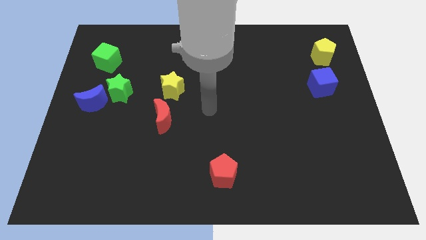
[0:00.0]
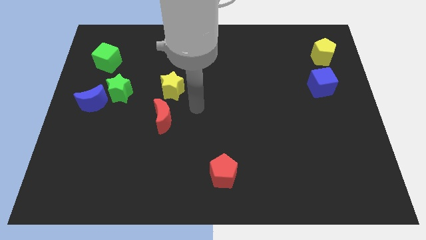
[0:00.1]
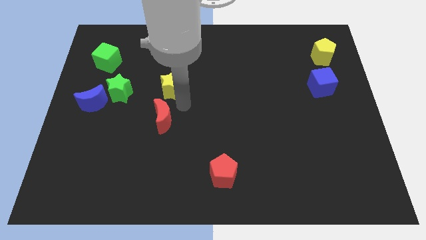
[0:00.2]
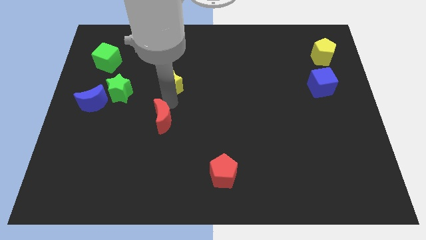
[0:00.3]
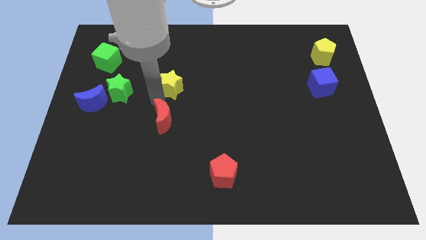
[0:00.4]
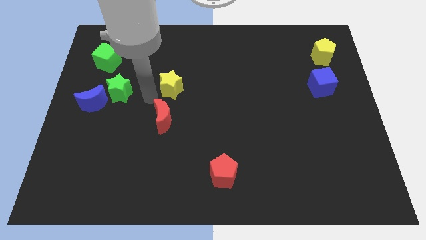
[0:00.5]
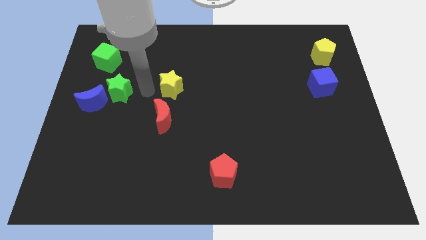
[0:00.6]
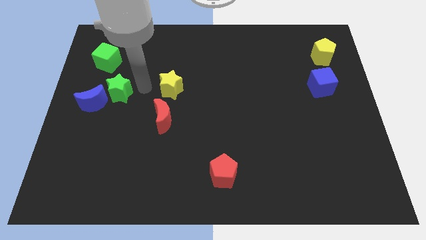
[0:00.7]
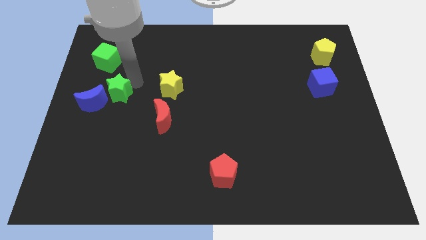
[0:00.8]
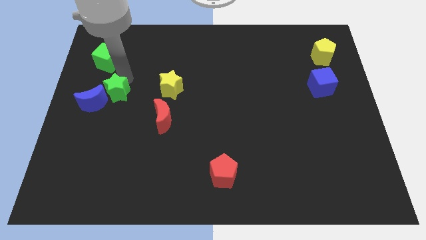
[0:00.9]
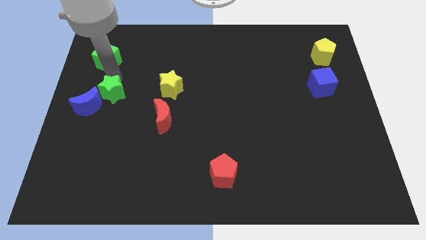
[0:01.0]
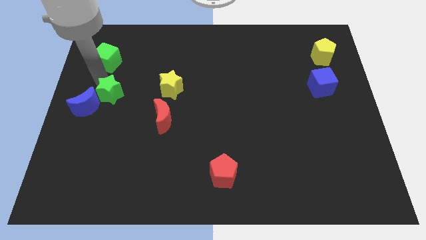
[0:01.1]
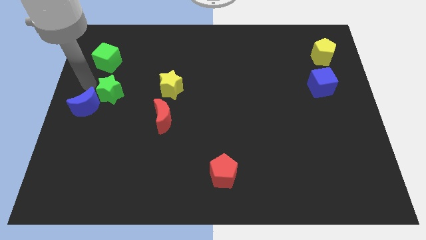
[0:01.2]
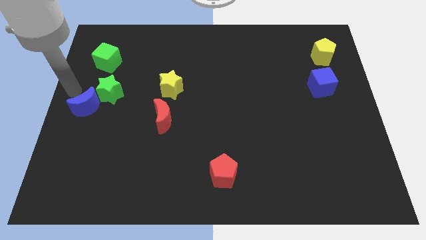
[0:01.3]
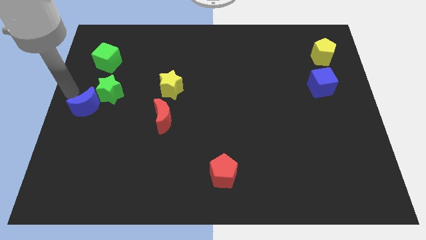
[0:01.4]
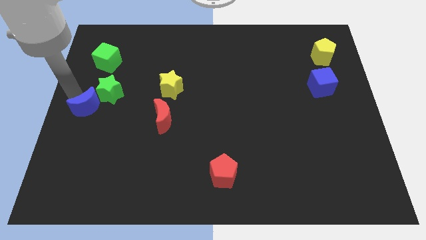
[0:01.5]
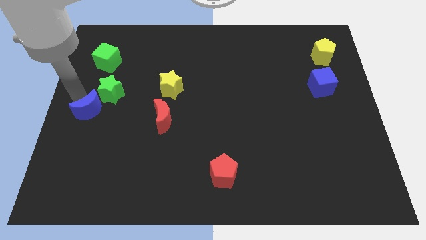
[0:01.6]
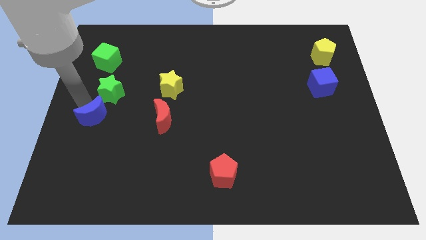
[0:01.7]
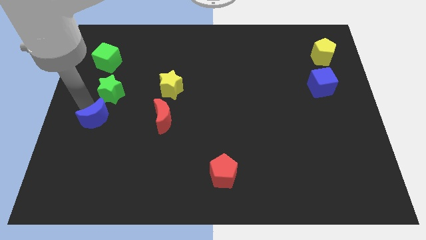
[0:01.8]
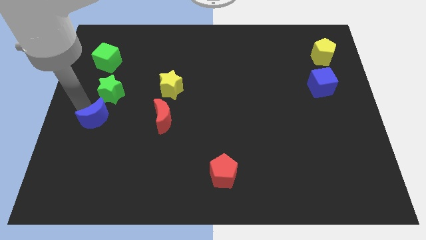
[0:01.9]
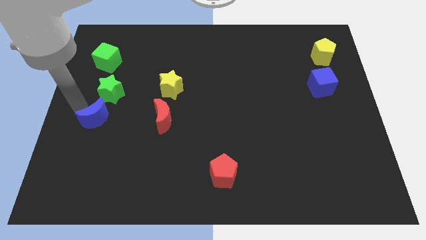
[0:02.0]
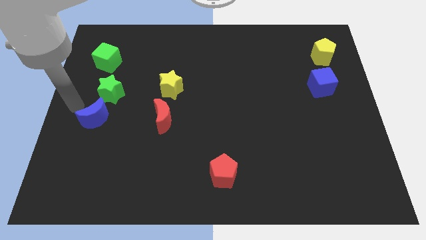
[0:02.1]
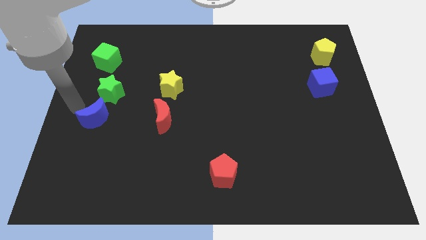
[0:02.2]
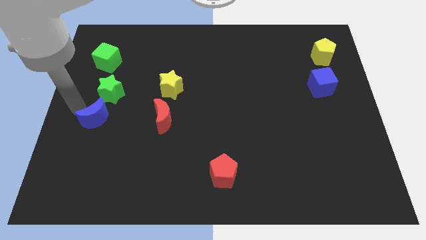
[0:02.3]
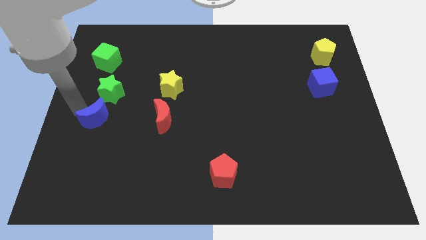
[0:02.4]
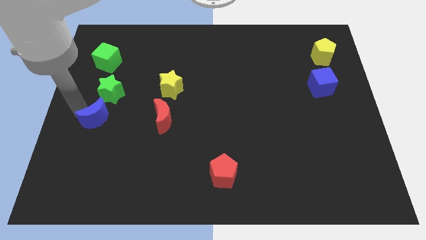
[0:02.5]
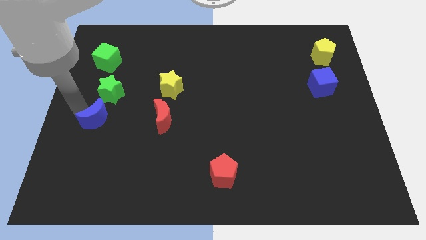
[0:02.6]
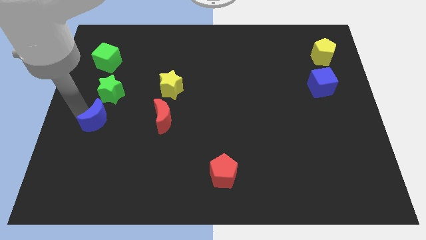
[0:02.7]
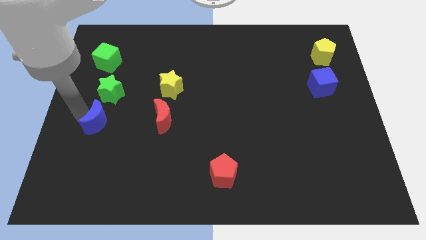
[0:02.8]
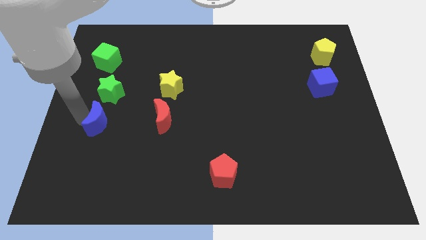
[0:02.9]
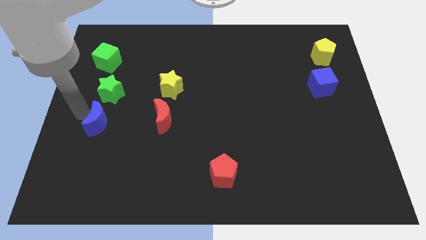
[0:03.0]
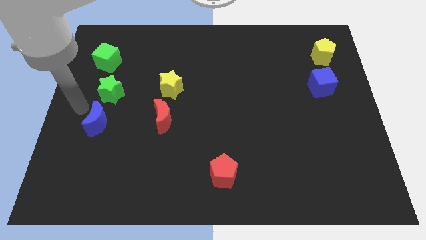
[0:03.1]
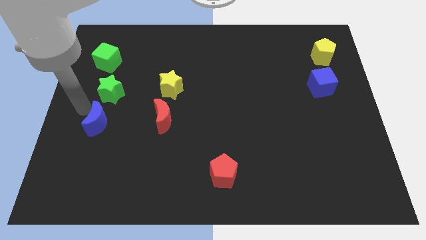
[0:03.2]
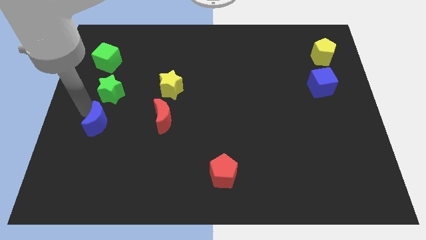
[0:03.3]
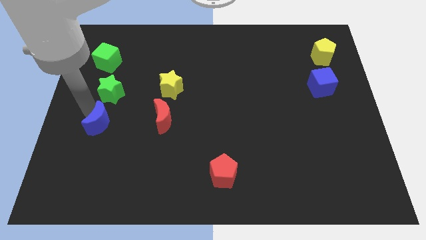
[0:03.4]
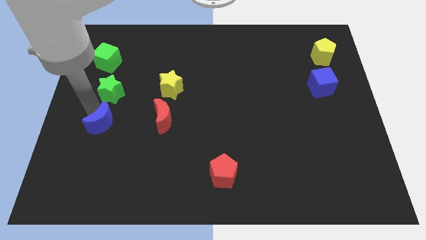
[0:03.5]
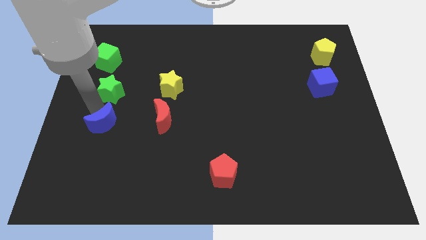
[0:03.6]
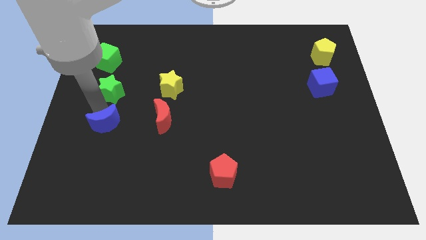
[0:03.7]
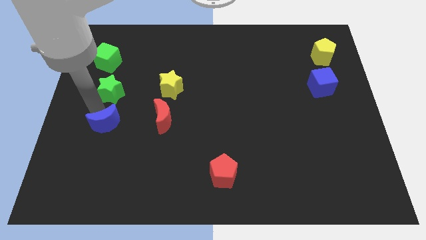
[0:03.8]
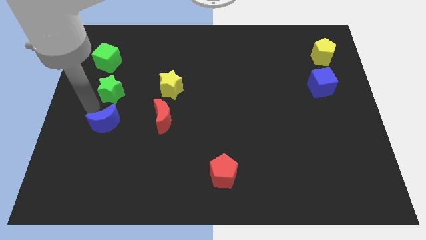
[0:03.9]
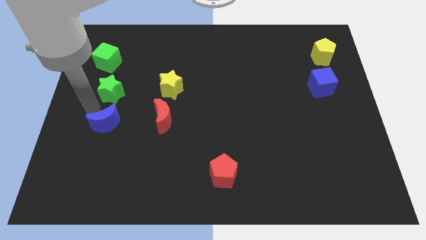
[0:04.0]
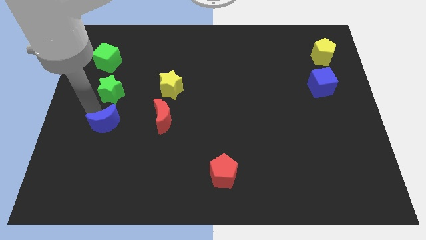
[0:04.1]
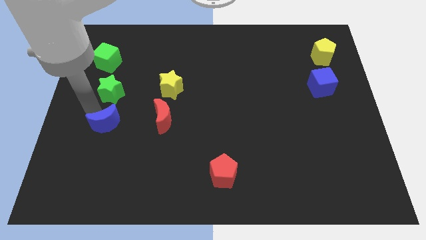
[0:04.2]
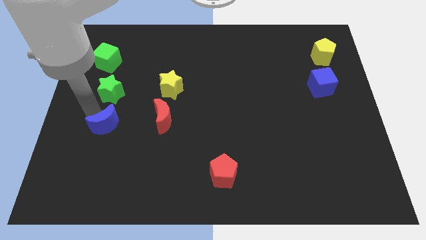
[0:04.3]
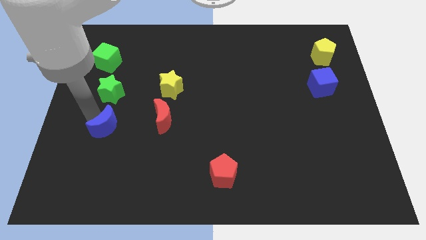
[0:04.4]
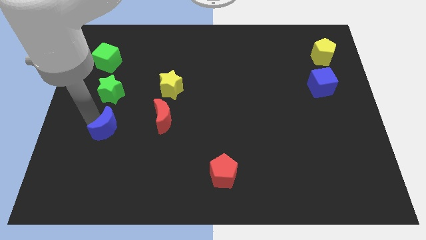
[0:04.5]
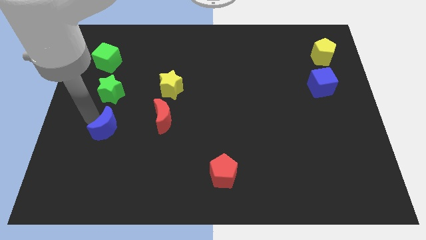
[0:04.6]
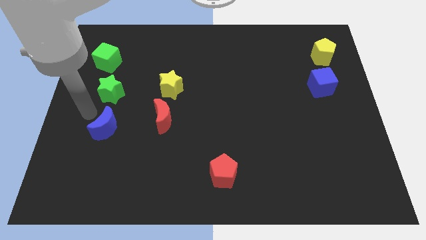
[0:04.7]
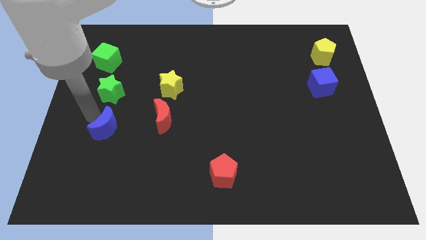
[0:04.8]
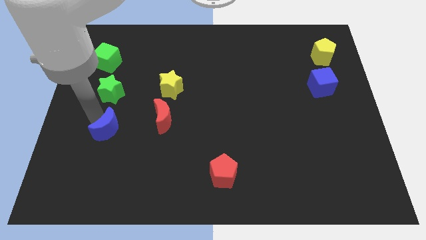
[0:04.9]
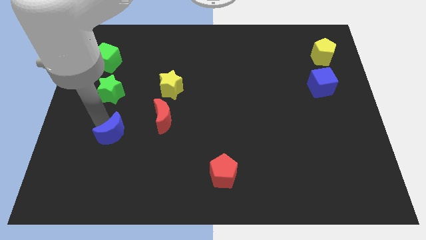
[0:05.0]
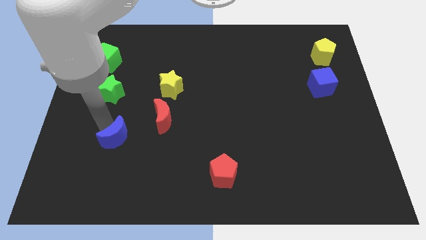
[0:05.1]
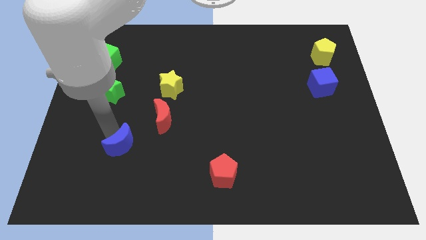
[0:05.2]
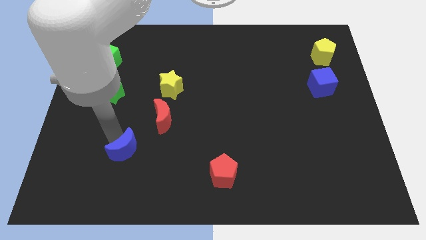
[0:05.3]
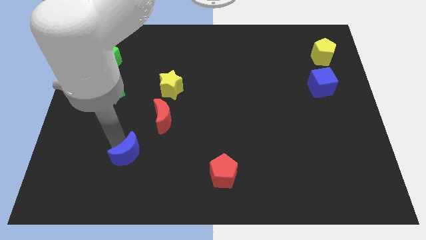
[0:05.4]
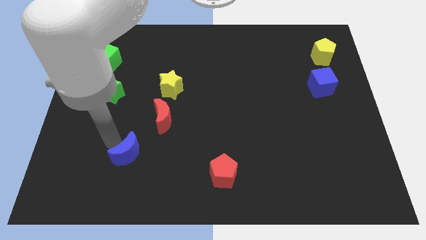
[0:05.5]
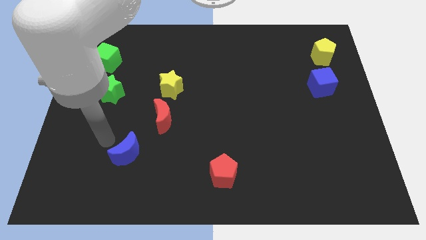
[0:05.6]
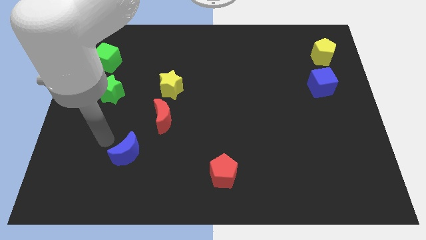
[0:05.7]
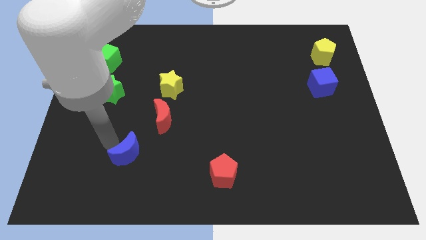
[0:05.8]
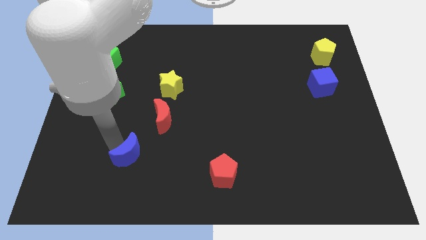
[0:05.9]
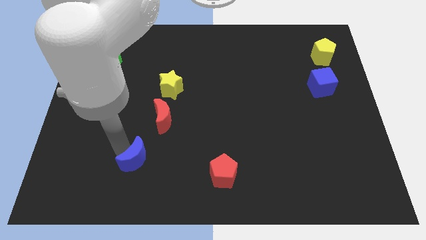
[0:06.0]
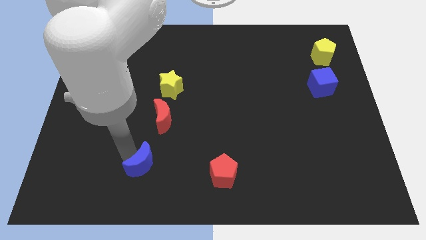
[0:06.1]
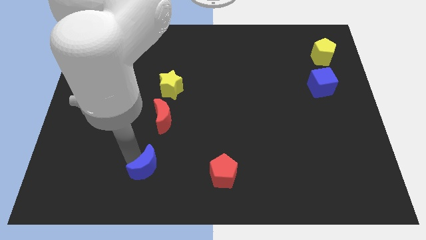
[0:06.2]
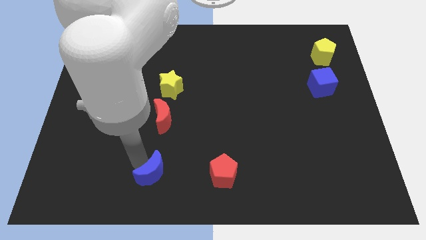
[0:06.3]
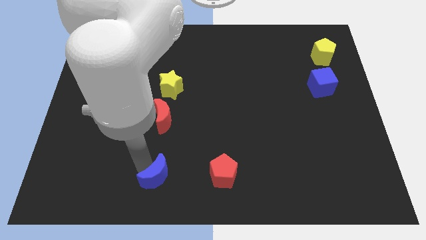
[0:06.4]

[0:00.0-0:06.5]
move the blue moon to the bottom side
